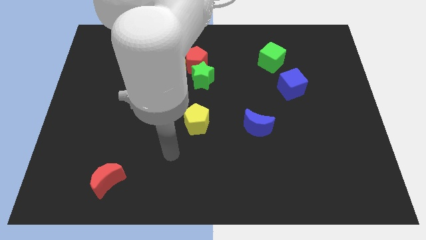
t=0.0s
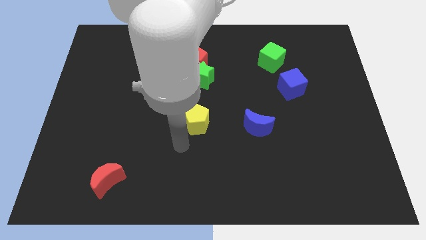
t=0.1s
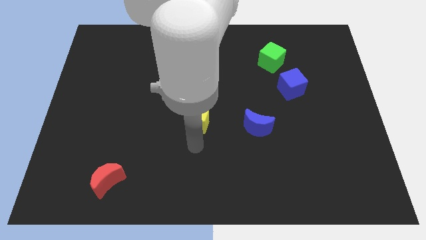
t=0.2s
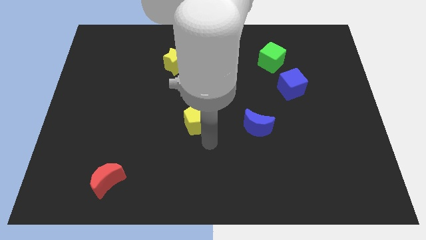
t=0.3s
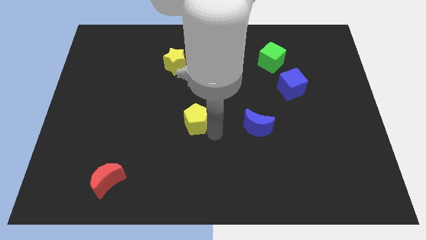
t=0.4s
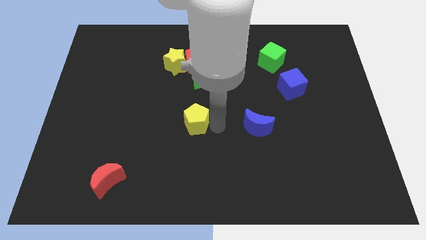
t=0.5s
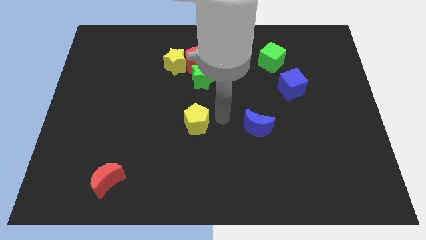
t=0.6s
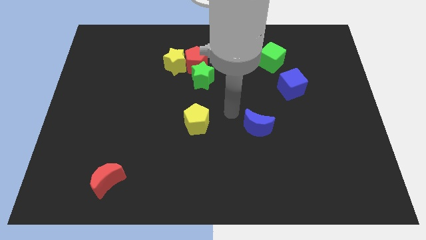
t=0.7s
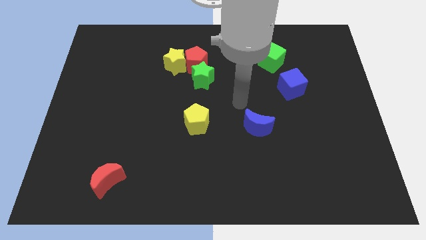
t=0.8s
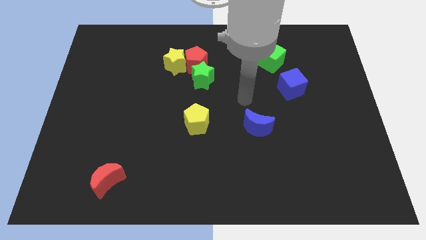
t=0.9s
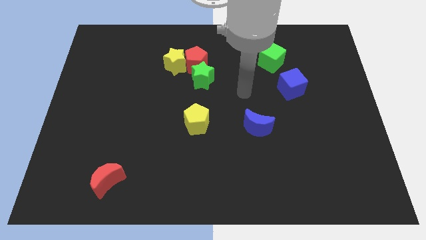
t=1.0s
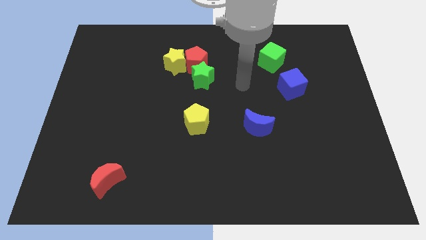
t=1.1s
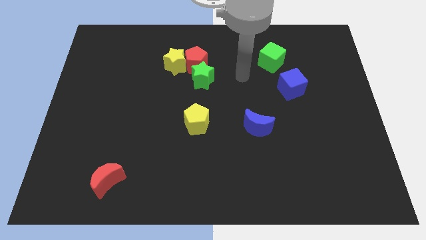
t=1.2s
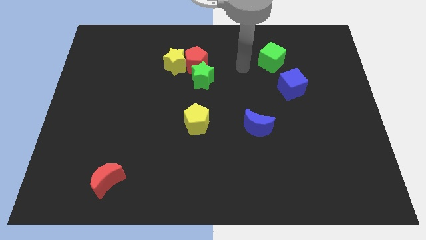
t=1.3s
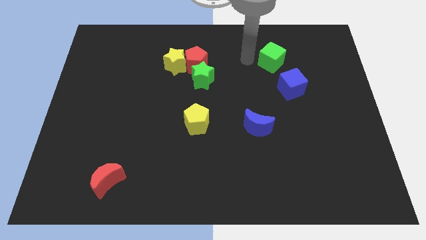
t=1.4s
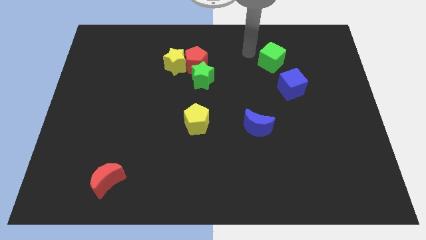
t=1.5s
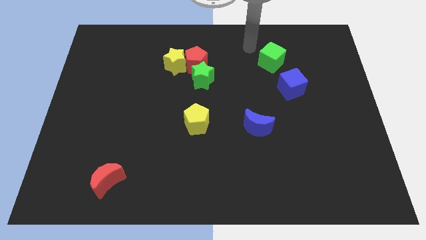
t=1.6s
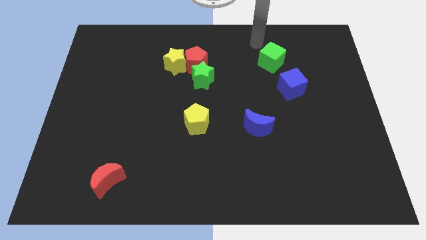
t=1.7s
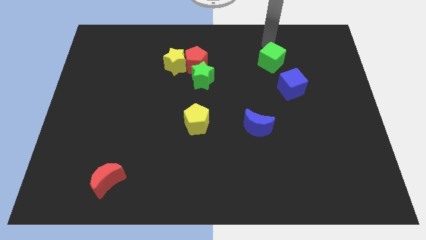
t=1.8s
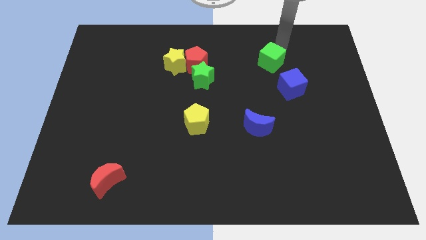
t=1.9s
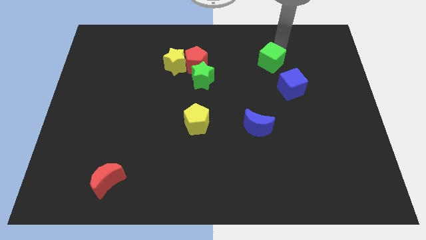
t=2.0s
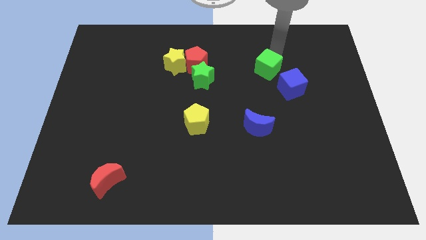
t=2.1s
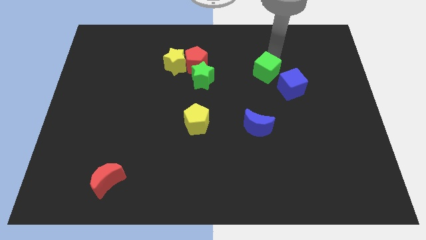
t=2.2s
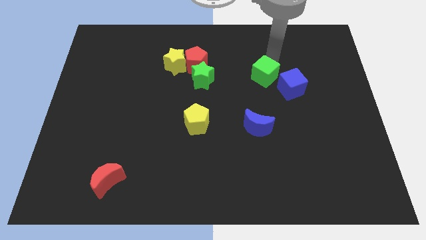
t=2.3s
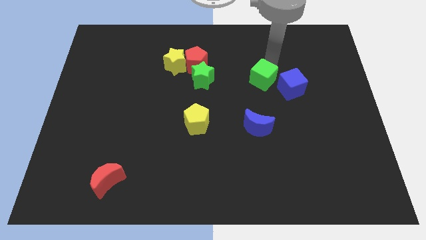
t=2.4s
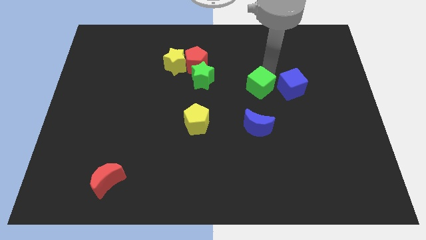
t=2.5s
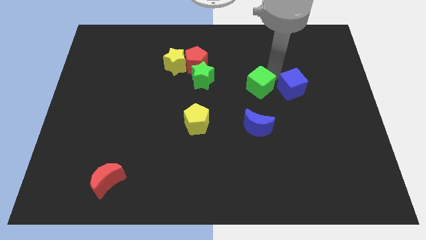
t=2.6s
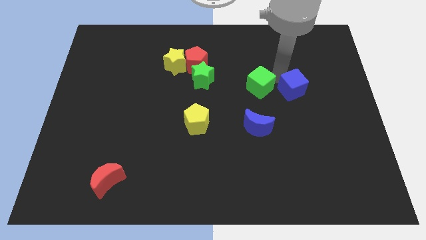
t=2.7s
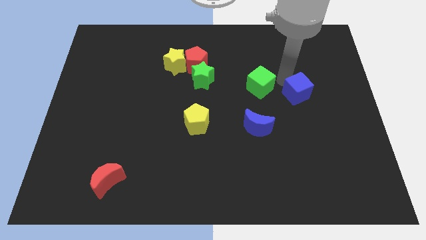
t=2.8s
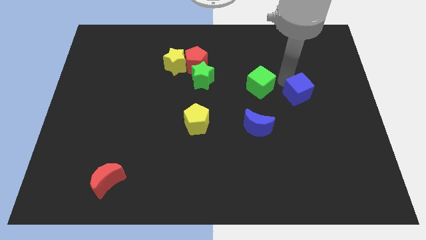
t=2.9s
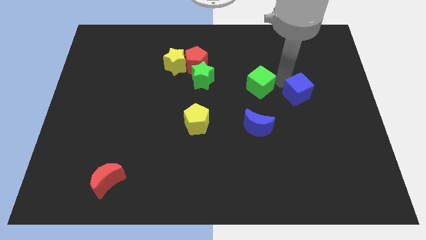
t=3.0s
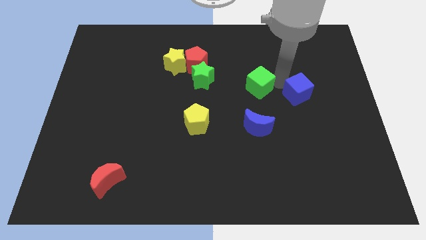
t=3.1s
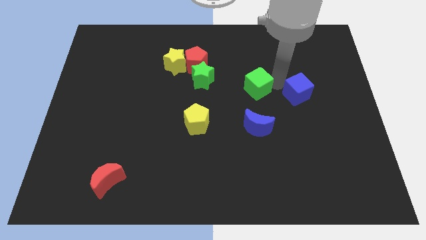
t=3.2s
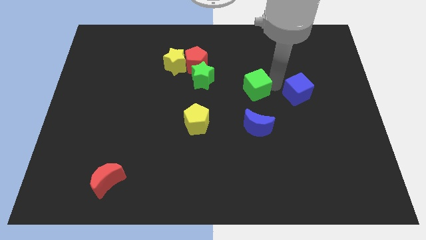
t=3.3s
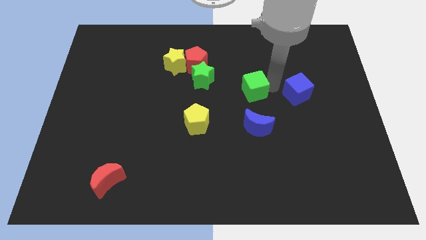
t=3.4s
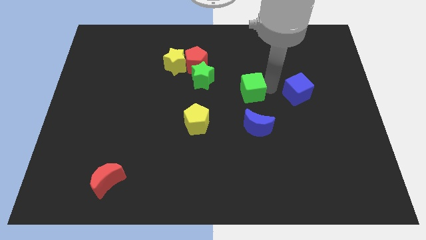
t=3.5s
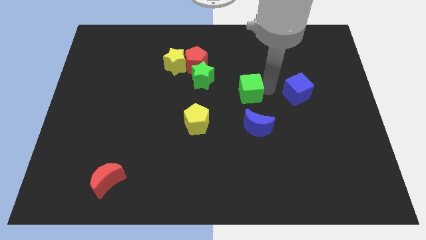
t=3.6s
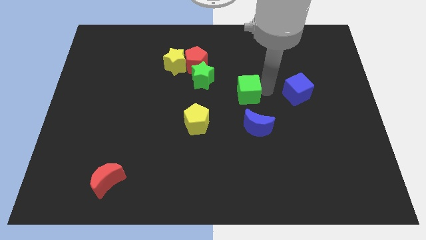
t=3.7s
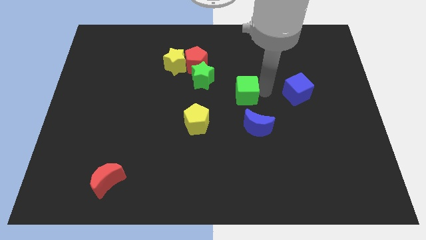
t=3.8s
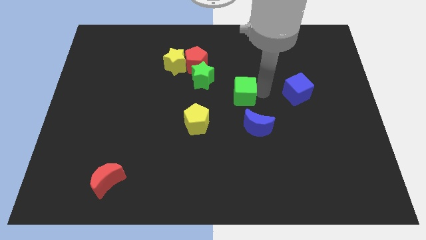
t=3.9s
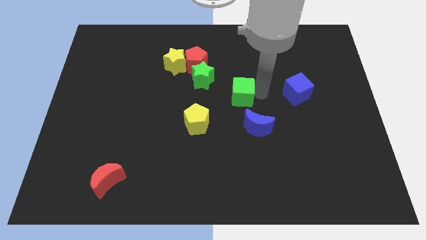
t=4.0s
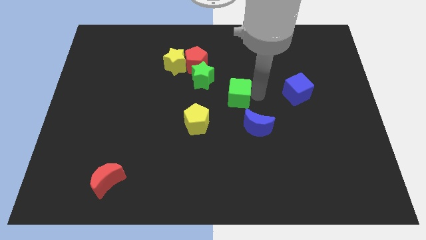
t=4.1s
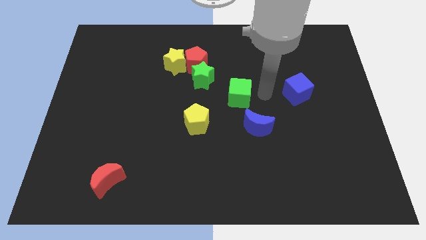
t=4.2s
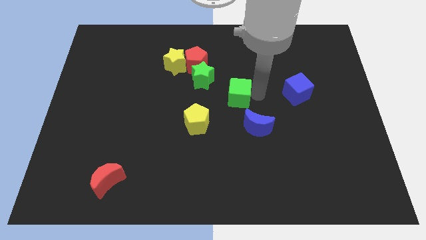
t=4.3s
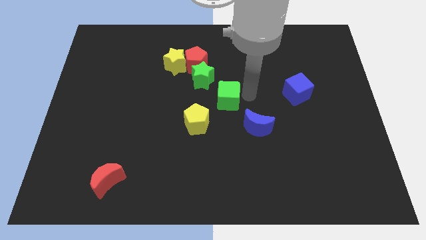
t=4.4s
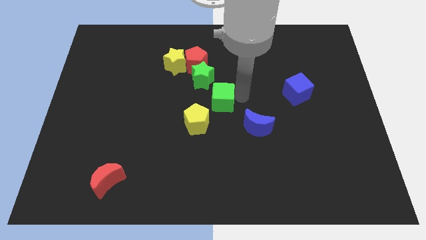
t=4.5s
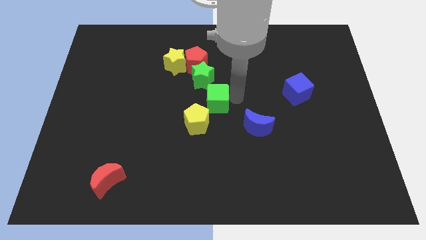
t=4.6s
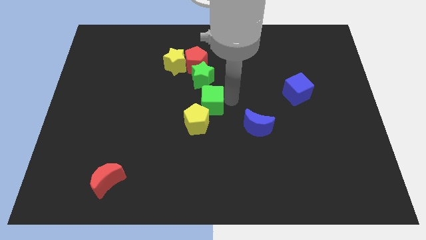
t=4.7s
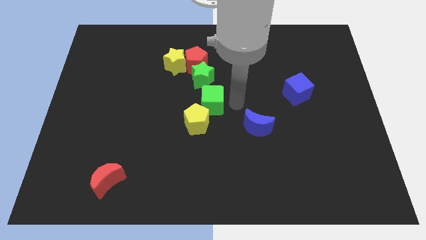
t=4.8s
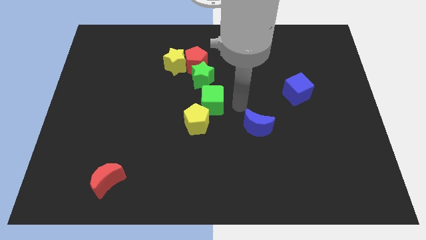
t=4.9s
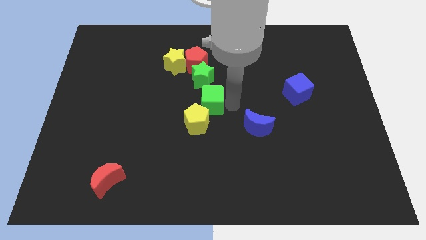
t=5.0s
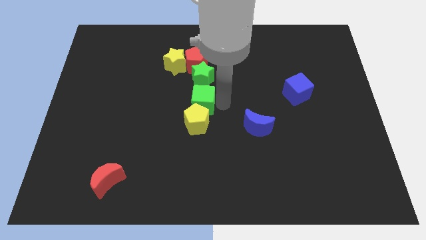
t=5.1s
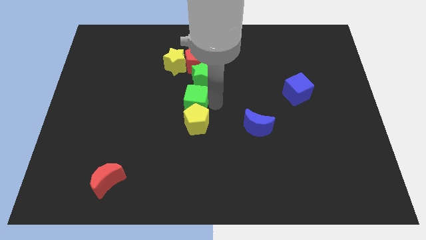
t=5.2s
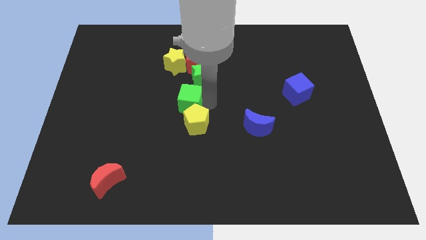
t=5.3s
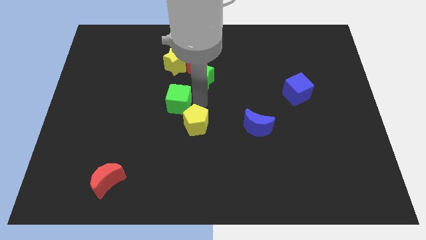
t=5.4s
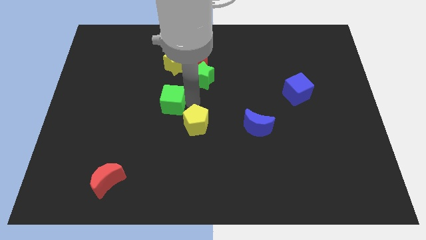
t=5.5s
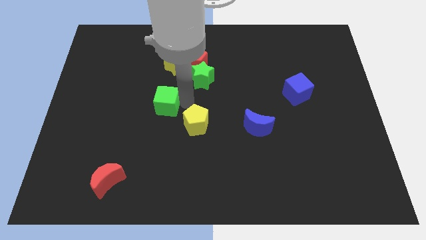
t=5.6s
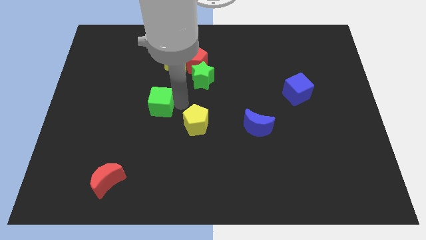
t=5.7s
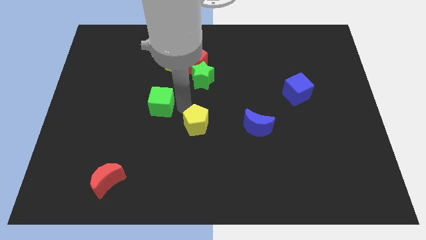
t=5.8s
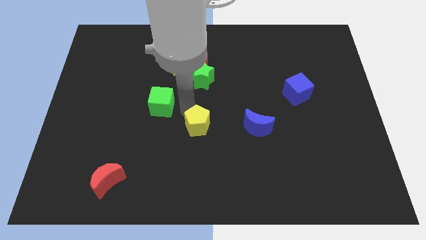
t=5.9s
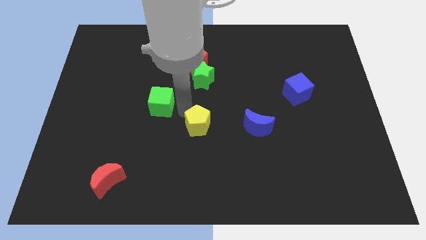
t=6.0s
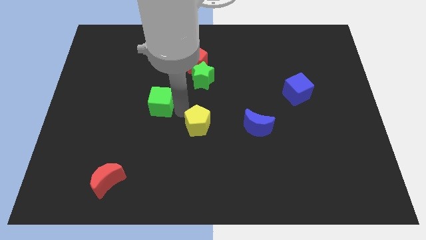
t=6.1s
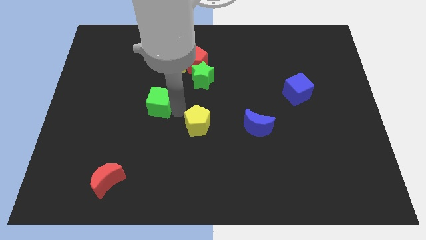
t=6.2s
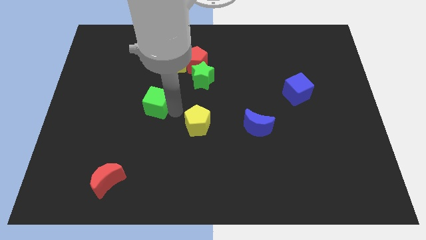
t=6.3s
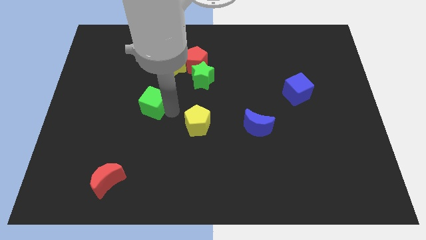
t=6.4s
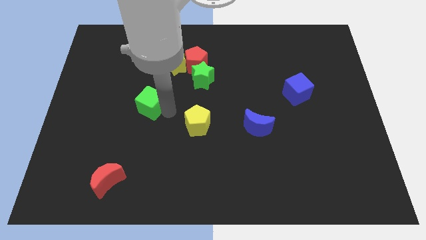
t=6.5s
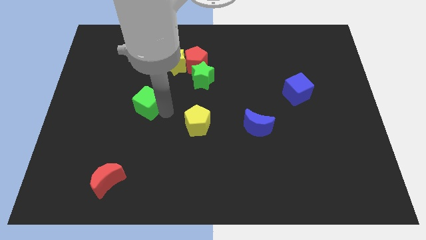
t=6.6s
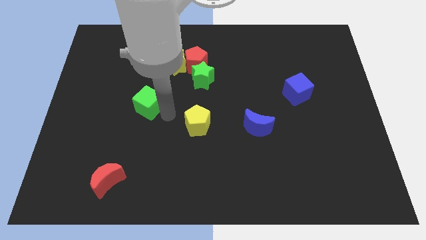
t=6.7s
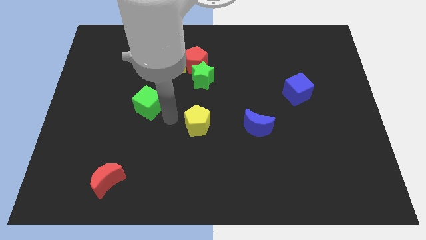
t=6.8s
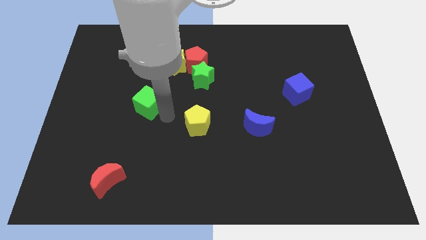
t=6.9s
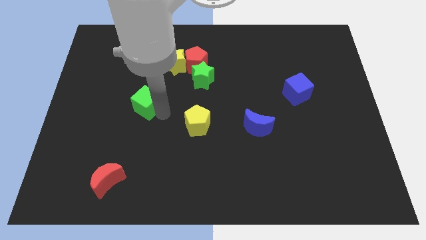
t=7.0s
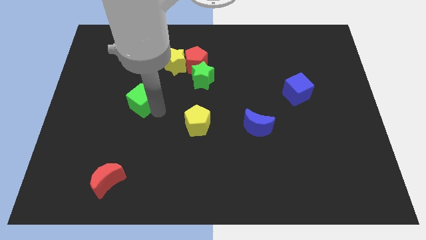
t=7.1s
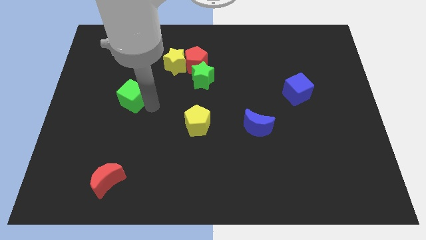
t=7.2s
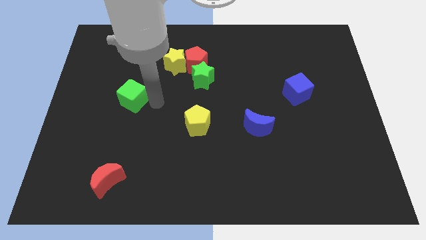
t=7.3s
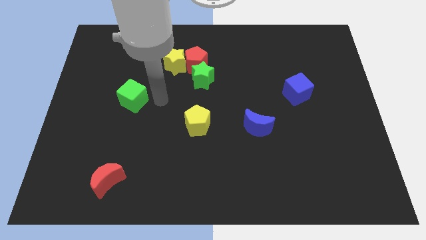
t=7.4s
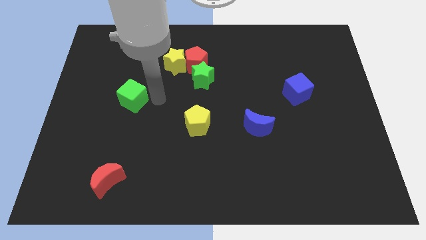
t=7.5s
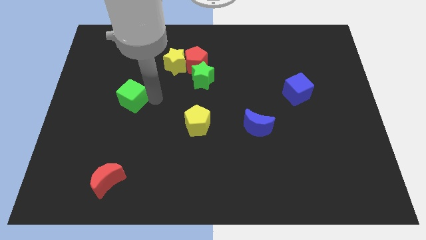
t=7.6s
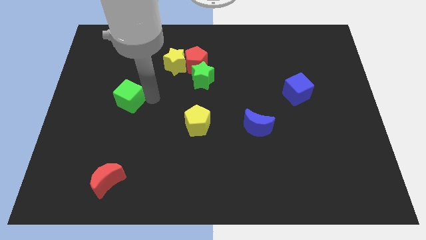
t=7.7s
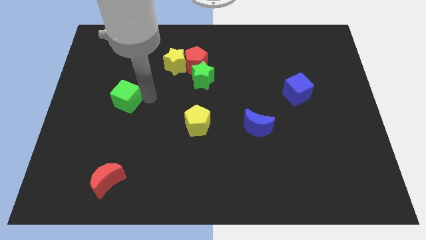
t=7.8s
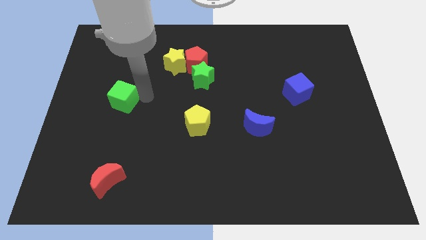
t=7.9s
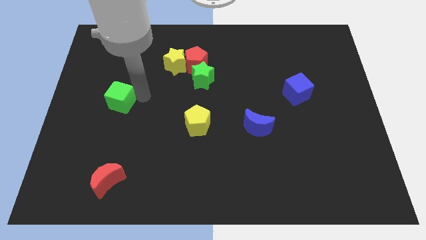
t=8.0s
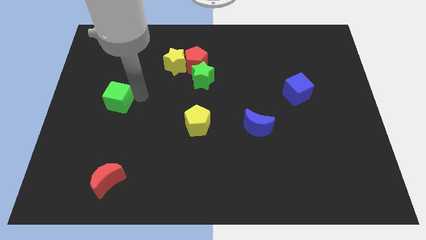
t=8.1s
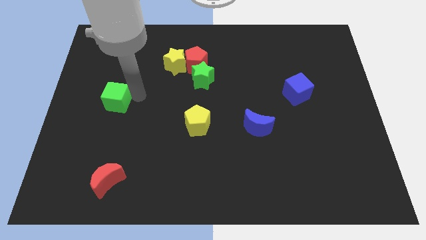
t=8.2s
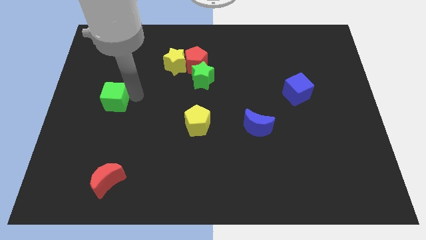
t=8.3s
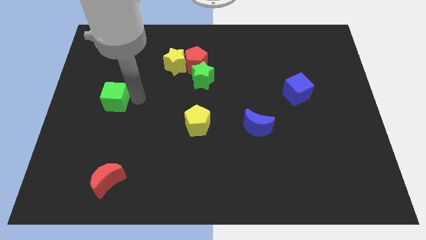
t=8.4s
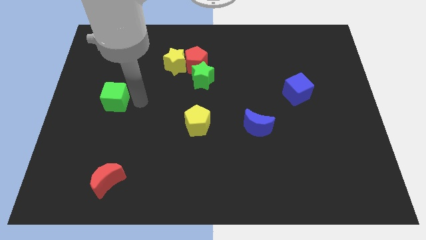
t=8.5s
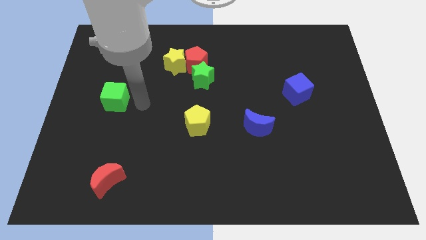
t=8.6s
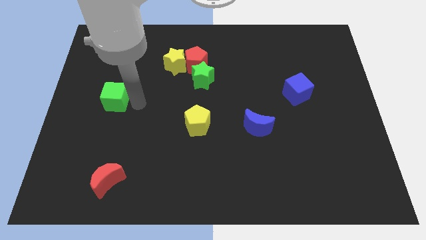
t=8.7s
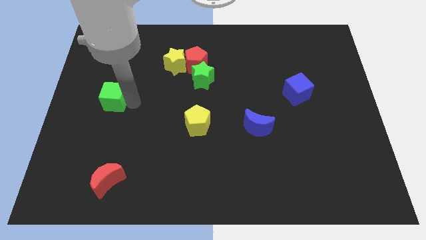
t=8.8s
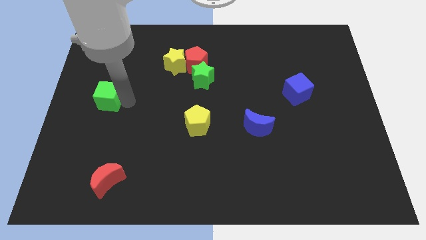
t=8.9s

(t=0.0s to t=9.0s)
move the green cube to the left side
